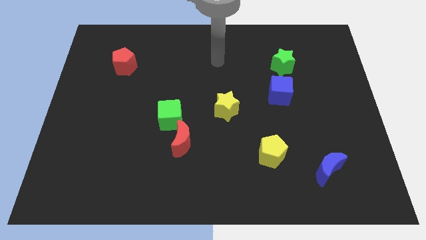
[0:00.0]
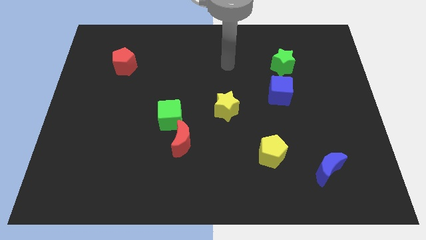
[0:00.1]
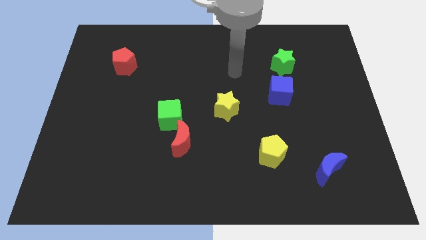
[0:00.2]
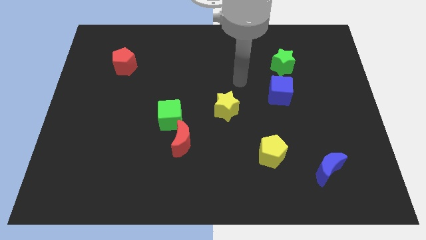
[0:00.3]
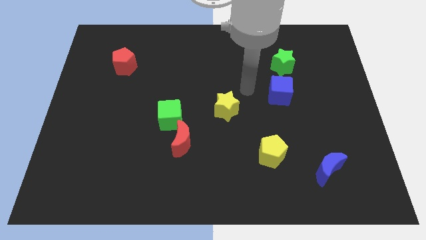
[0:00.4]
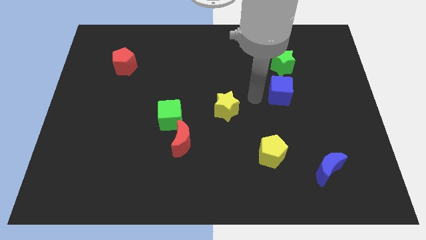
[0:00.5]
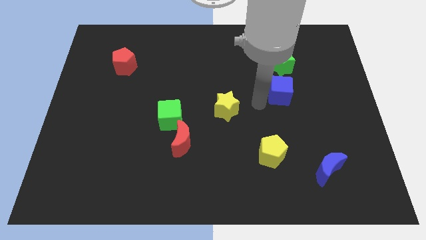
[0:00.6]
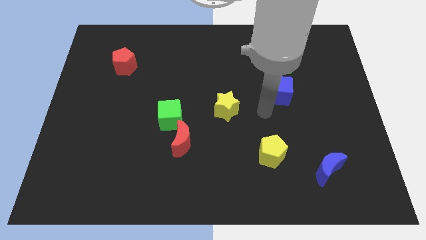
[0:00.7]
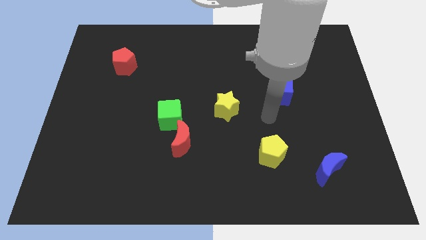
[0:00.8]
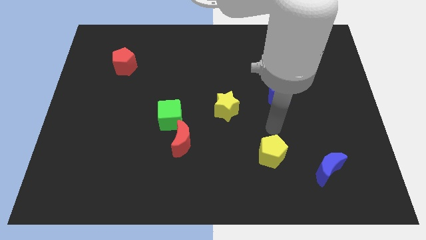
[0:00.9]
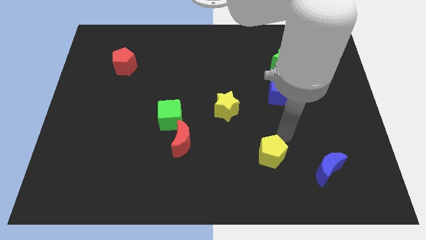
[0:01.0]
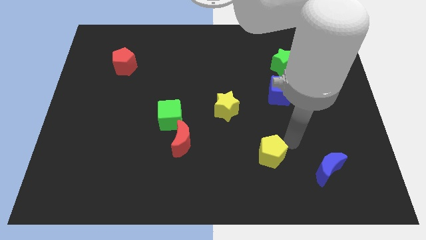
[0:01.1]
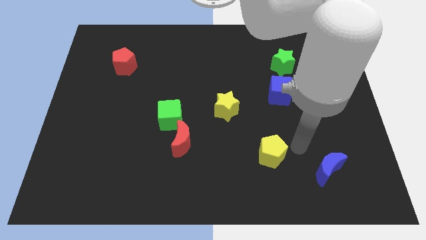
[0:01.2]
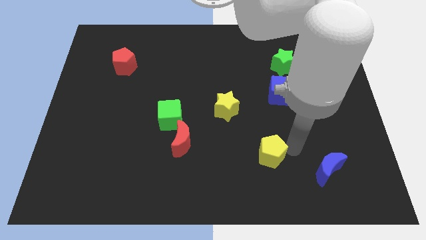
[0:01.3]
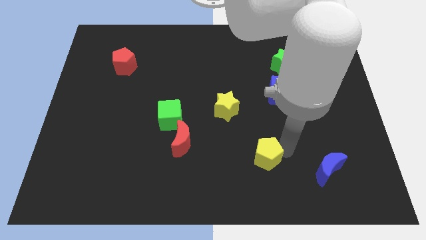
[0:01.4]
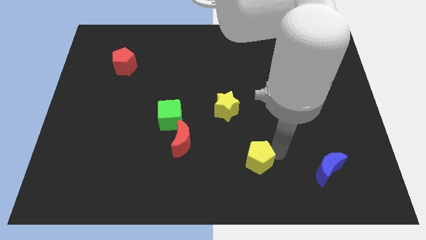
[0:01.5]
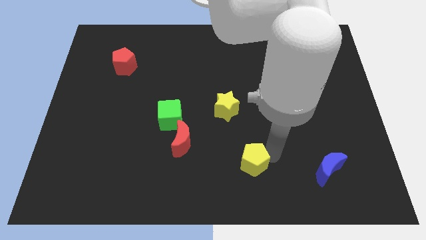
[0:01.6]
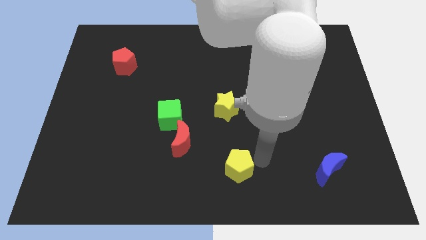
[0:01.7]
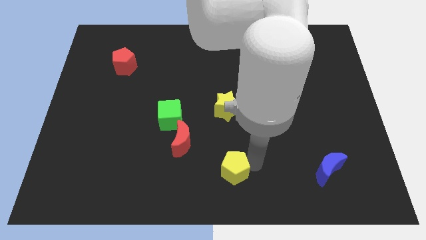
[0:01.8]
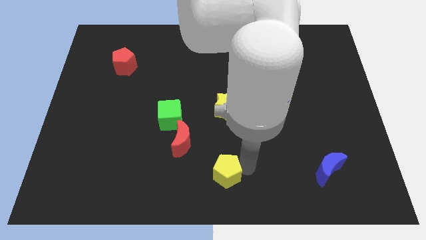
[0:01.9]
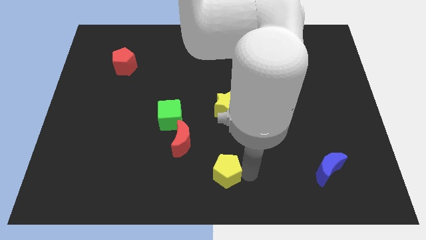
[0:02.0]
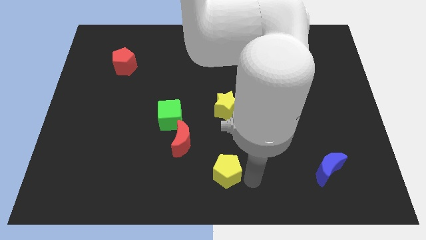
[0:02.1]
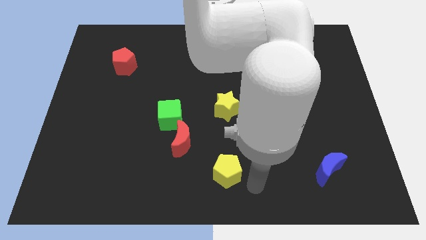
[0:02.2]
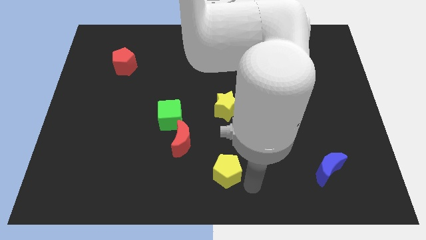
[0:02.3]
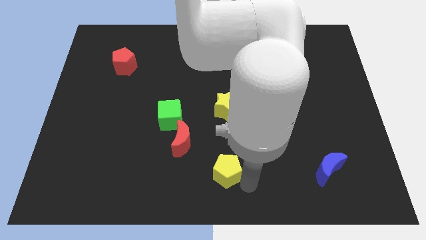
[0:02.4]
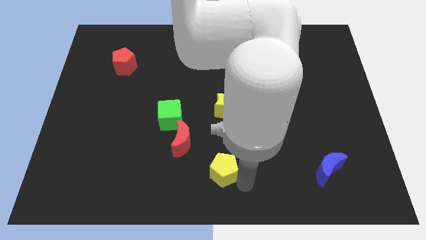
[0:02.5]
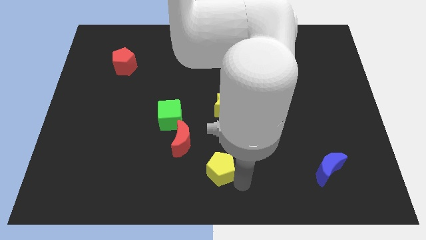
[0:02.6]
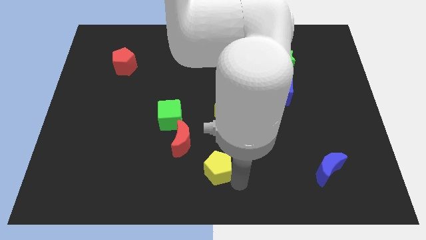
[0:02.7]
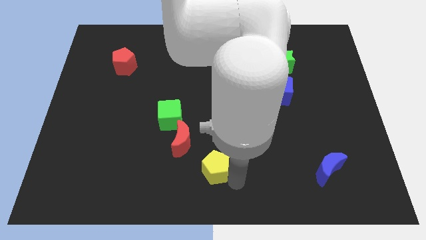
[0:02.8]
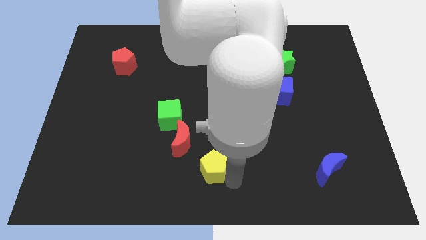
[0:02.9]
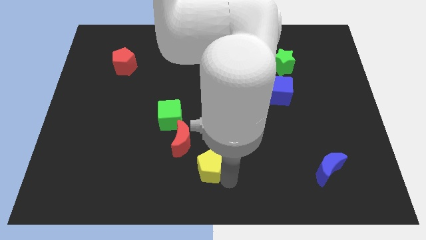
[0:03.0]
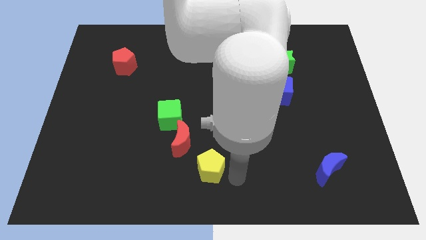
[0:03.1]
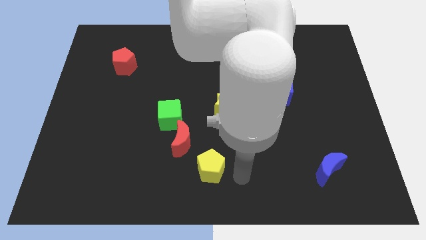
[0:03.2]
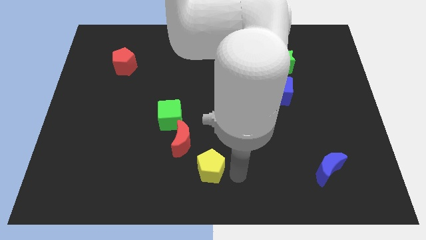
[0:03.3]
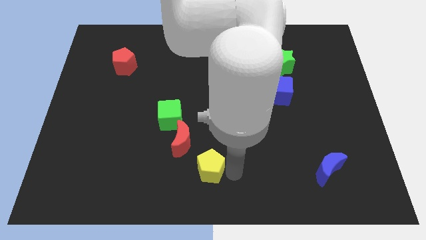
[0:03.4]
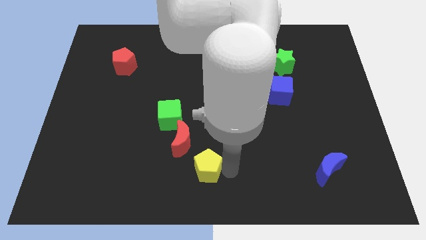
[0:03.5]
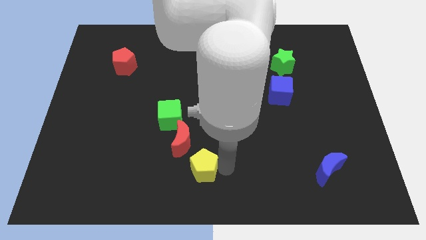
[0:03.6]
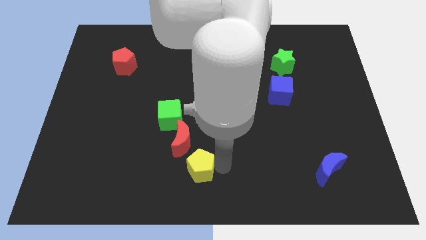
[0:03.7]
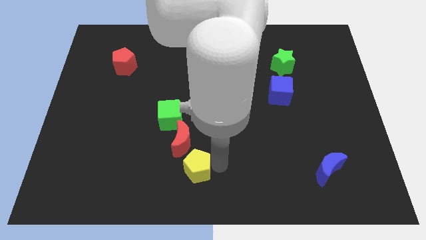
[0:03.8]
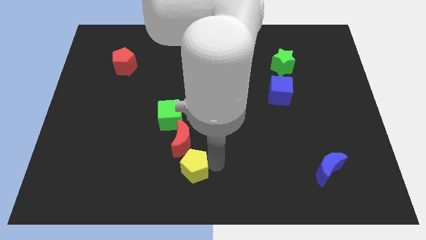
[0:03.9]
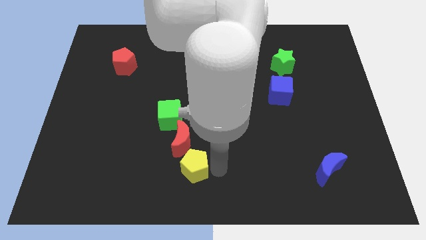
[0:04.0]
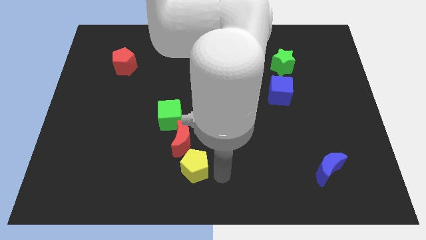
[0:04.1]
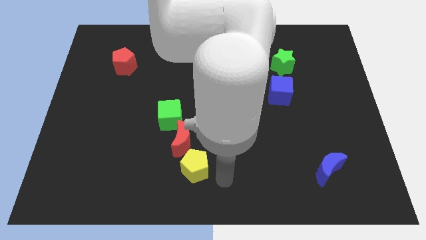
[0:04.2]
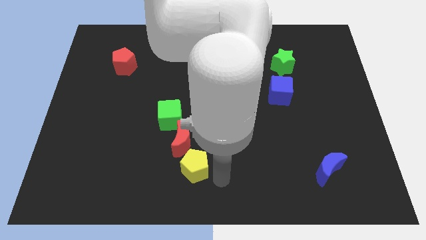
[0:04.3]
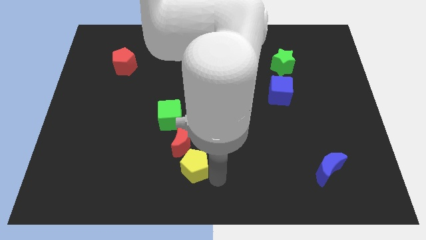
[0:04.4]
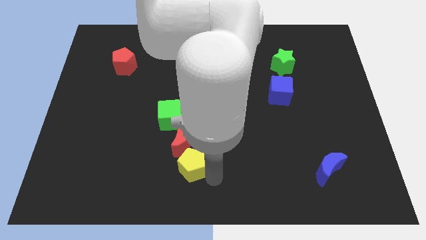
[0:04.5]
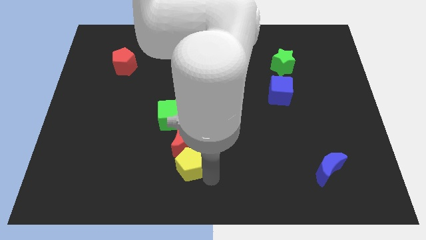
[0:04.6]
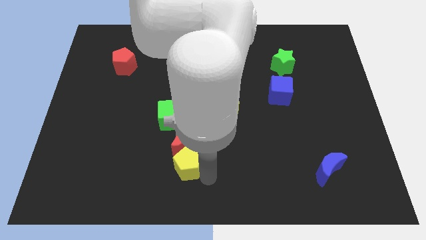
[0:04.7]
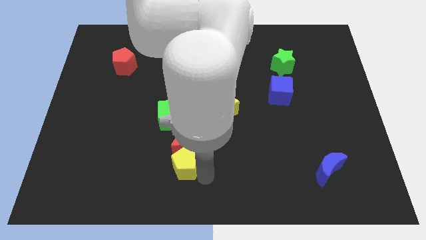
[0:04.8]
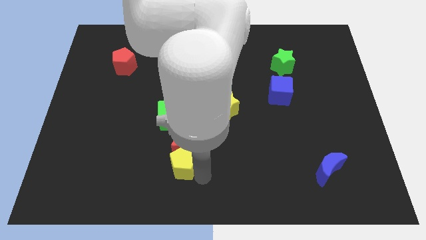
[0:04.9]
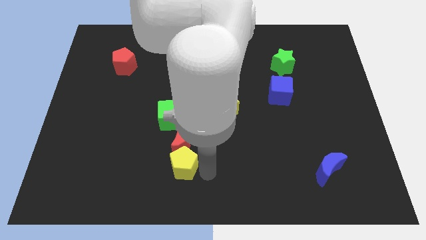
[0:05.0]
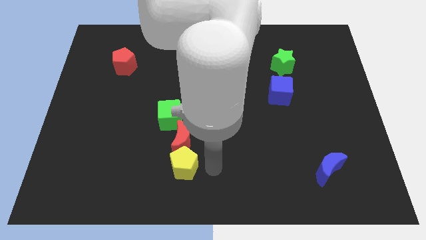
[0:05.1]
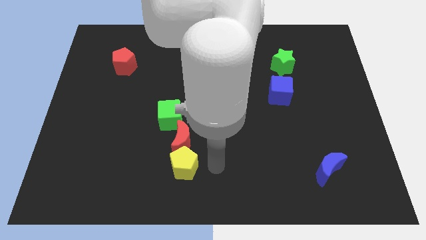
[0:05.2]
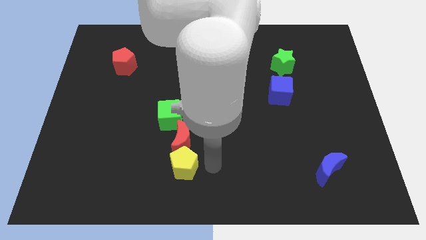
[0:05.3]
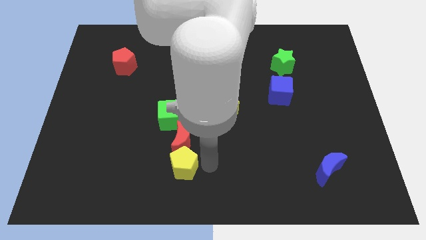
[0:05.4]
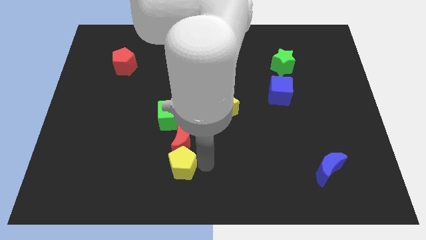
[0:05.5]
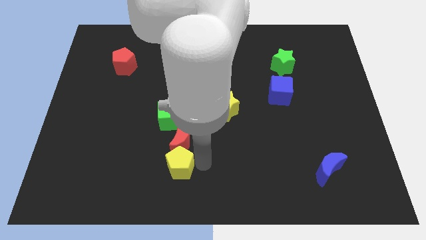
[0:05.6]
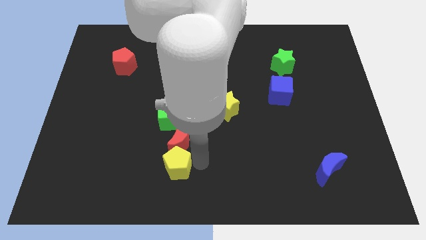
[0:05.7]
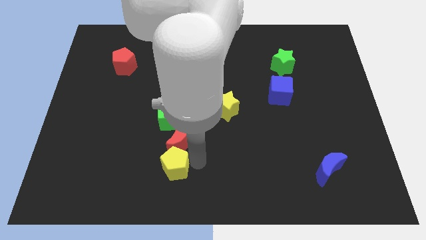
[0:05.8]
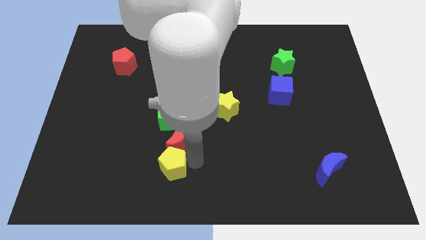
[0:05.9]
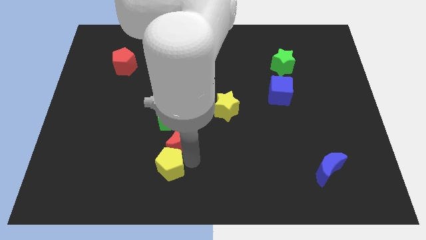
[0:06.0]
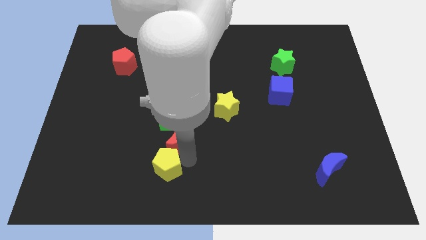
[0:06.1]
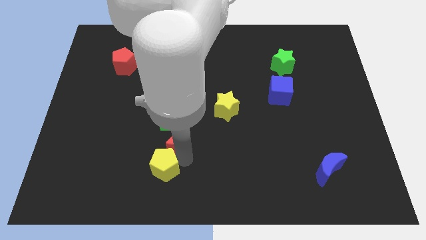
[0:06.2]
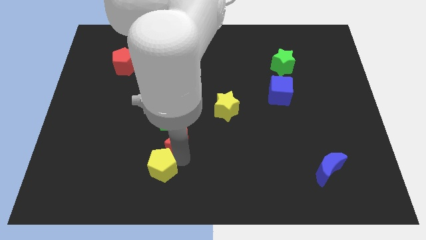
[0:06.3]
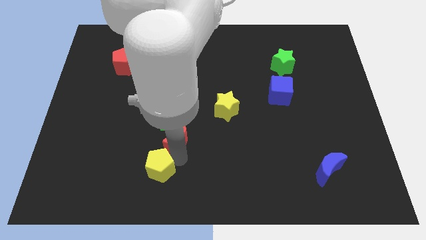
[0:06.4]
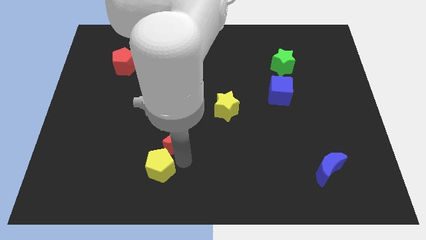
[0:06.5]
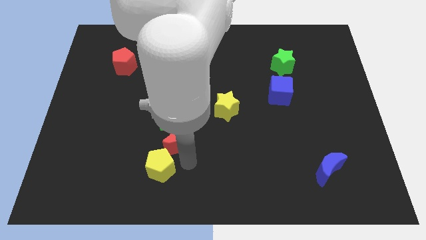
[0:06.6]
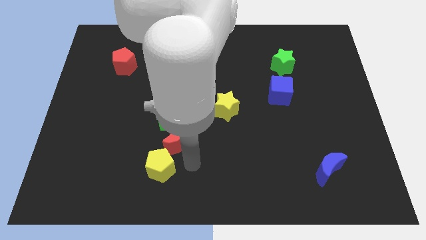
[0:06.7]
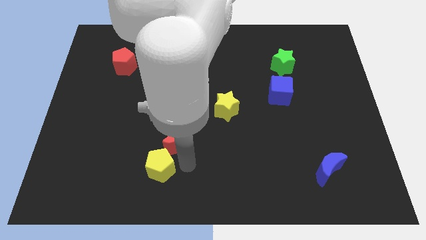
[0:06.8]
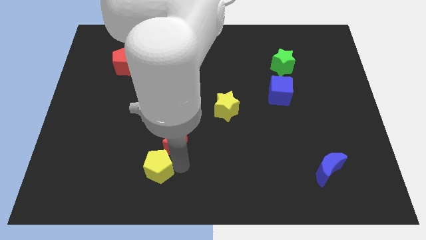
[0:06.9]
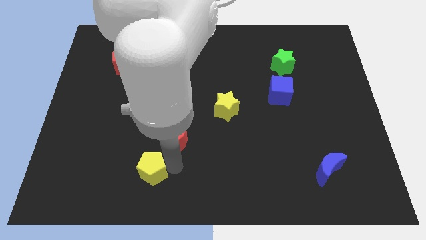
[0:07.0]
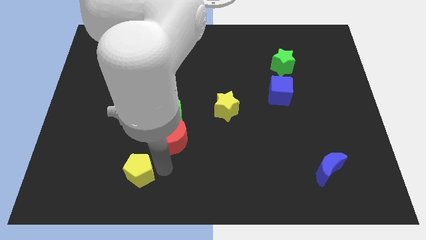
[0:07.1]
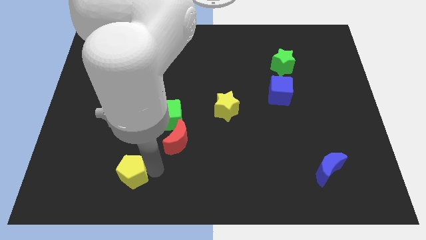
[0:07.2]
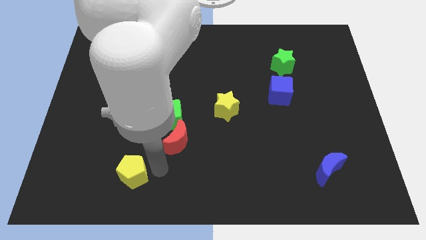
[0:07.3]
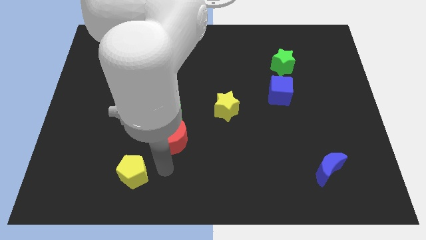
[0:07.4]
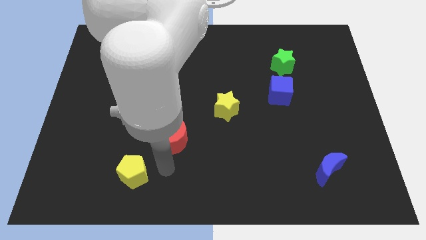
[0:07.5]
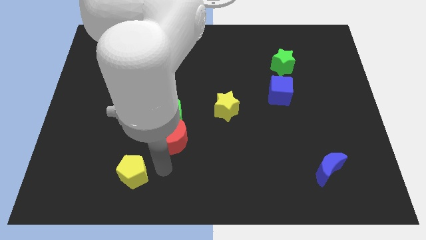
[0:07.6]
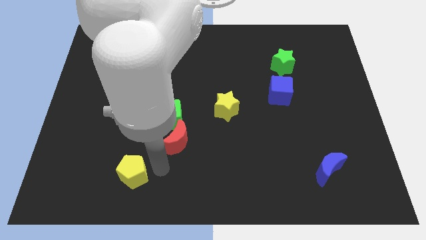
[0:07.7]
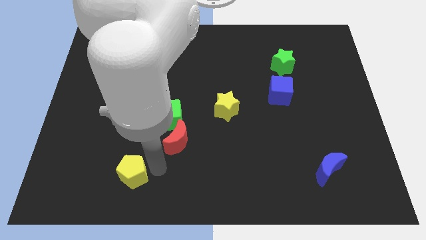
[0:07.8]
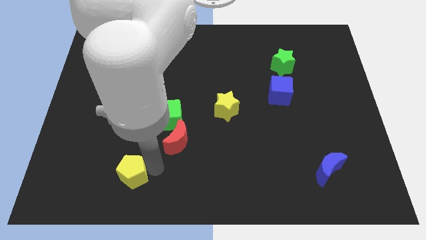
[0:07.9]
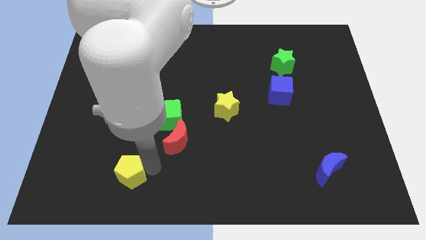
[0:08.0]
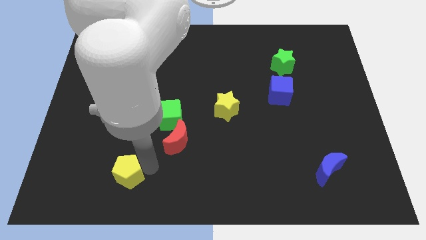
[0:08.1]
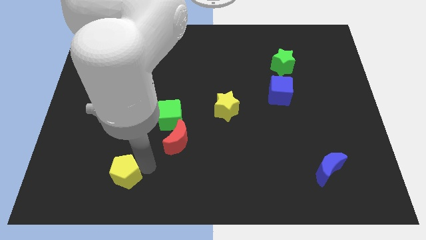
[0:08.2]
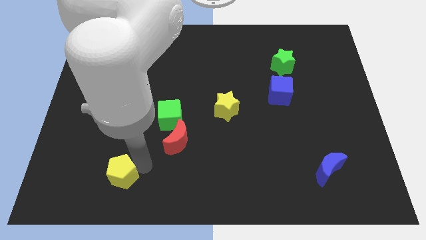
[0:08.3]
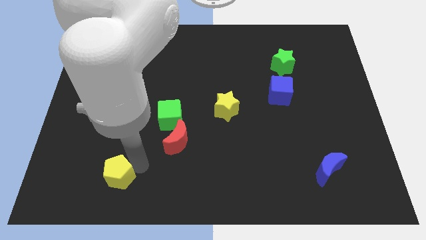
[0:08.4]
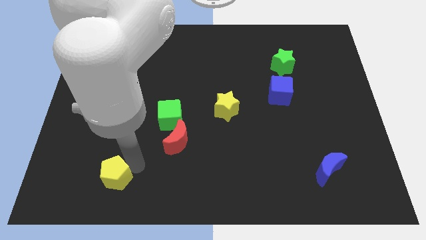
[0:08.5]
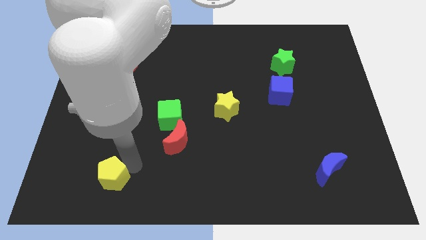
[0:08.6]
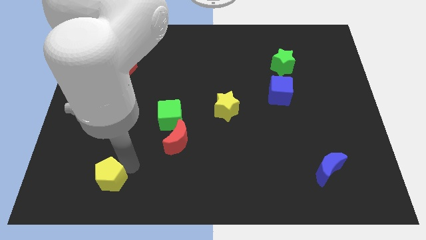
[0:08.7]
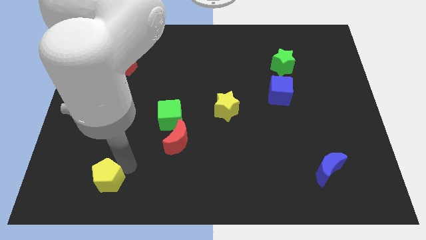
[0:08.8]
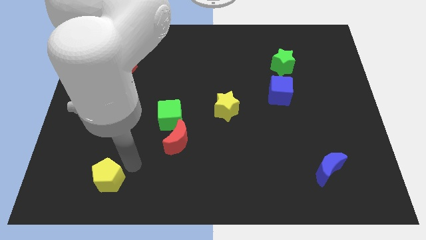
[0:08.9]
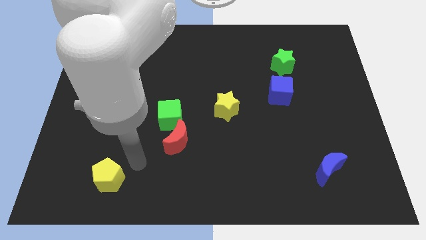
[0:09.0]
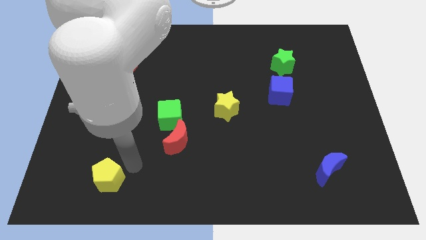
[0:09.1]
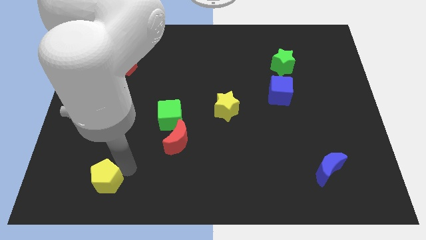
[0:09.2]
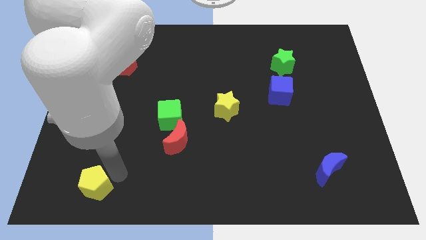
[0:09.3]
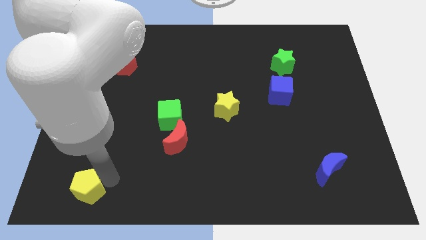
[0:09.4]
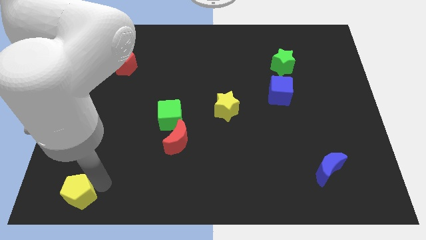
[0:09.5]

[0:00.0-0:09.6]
move the yellow pentagon to the lower left corner
